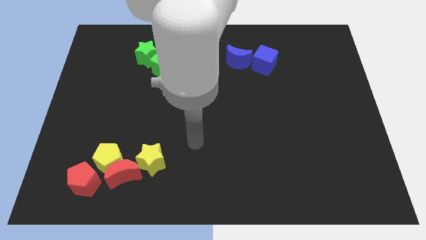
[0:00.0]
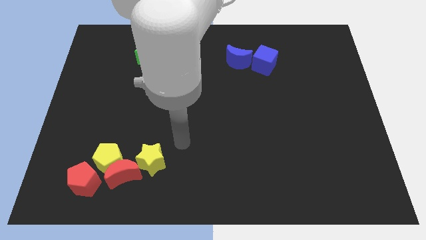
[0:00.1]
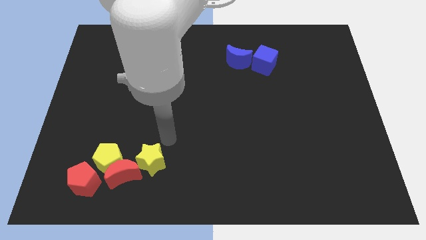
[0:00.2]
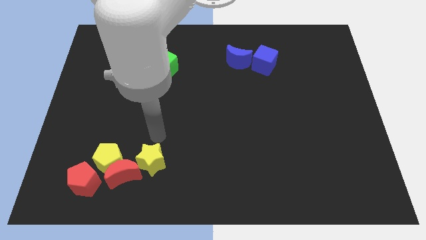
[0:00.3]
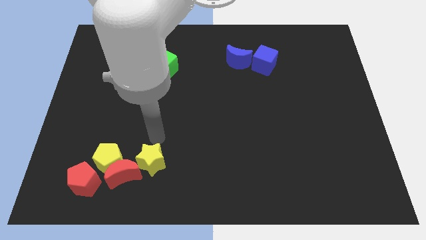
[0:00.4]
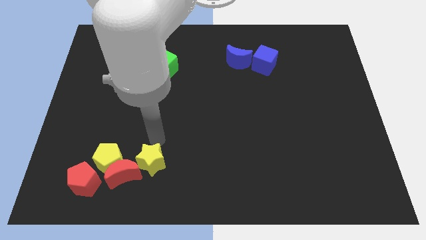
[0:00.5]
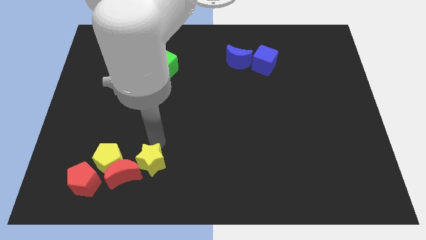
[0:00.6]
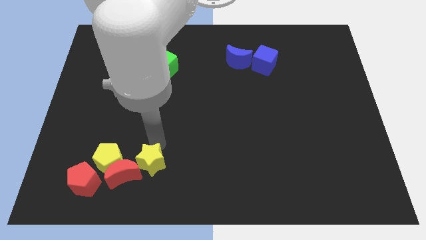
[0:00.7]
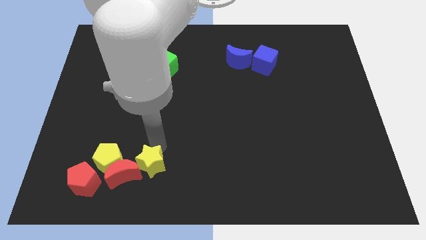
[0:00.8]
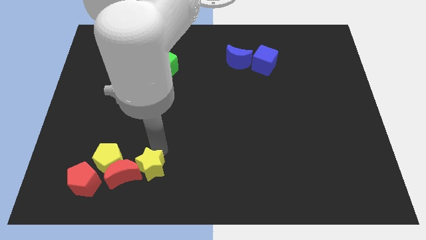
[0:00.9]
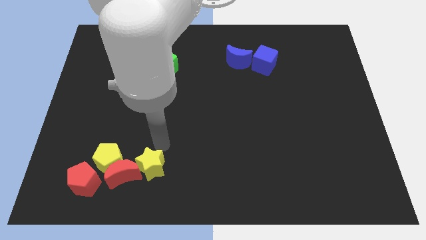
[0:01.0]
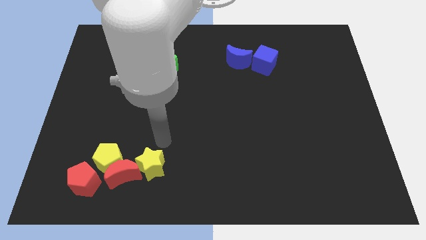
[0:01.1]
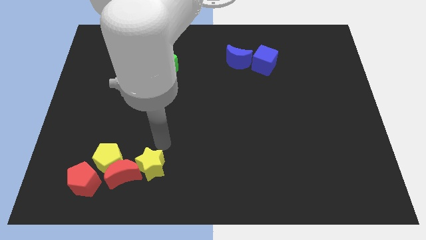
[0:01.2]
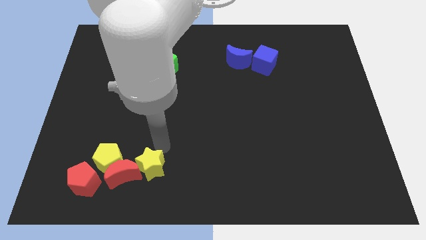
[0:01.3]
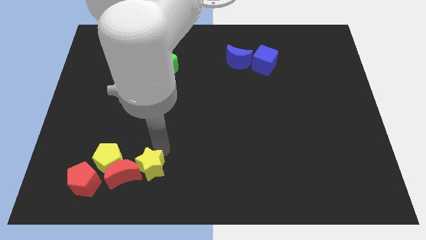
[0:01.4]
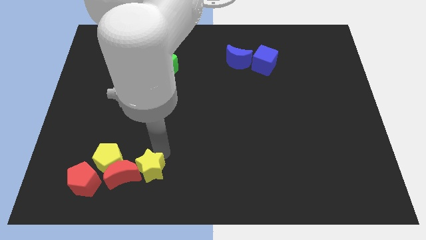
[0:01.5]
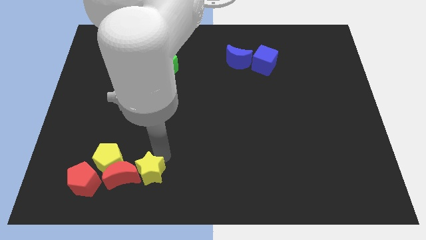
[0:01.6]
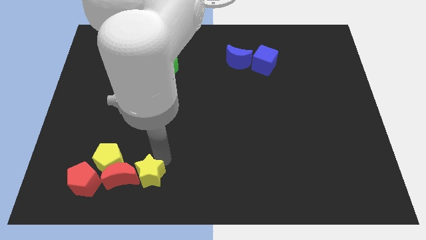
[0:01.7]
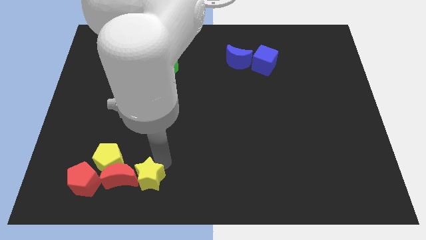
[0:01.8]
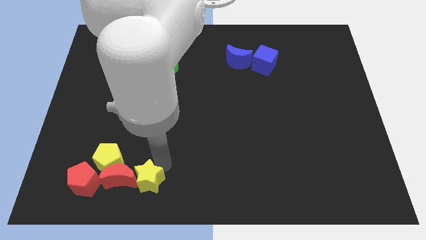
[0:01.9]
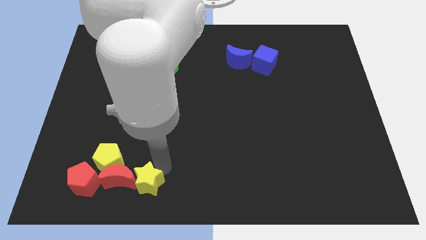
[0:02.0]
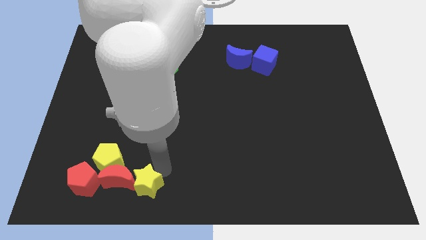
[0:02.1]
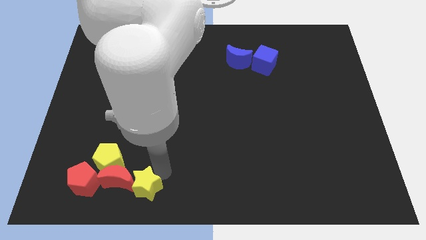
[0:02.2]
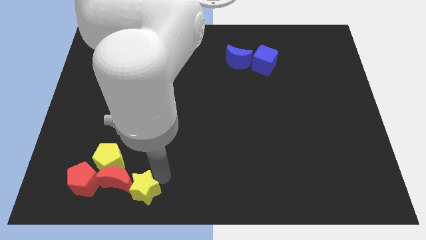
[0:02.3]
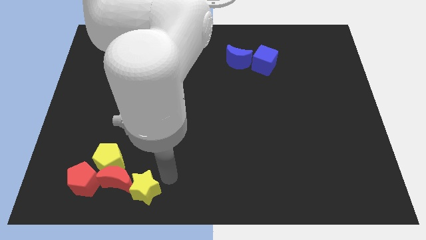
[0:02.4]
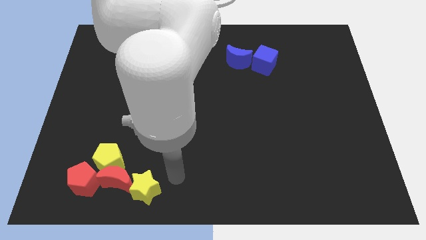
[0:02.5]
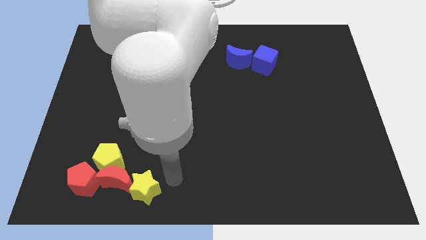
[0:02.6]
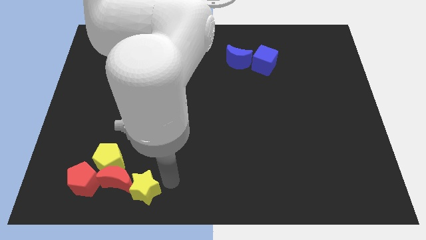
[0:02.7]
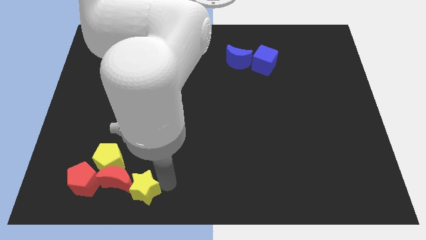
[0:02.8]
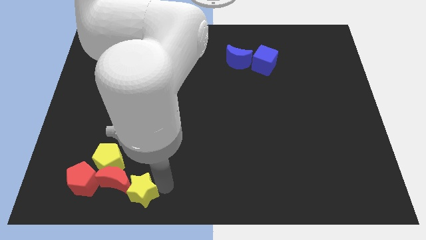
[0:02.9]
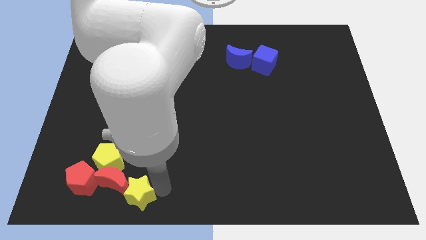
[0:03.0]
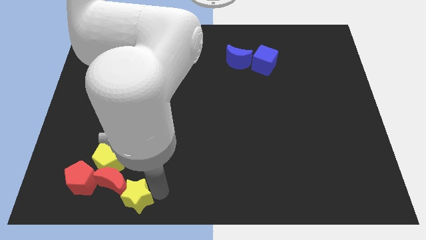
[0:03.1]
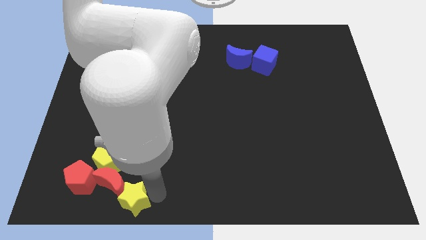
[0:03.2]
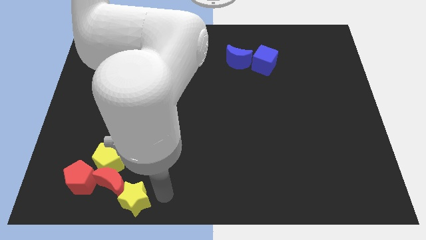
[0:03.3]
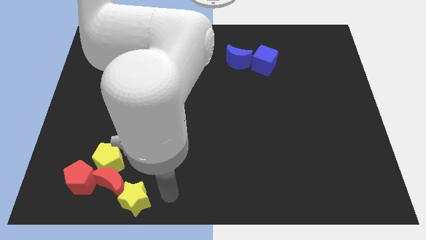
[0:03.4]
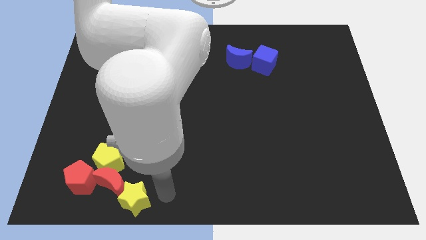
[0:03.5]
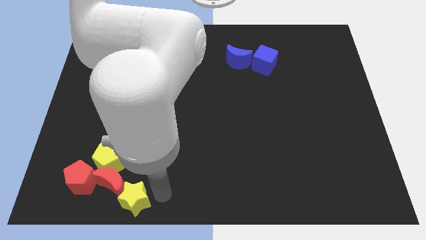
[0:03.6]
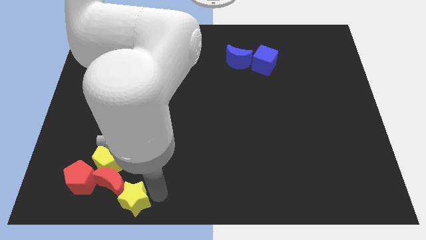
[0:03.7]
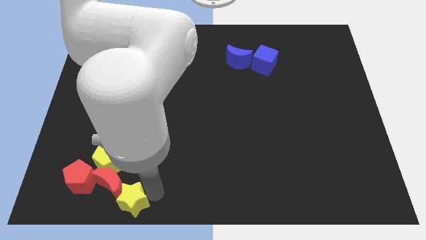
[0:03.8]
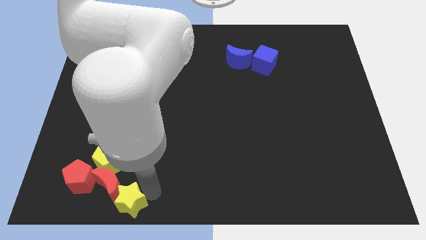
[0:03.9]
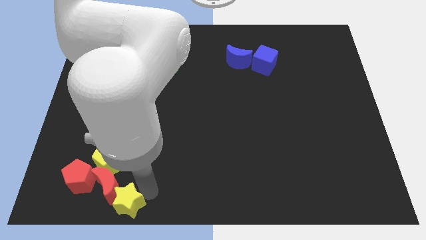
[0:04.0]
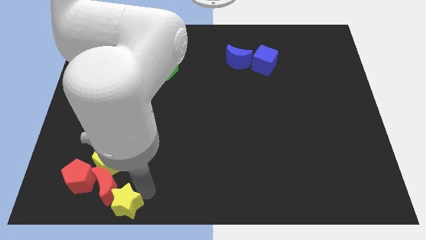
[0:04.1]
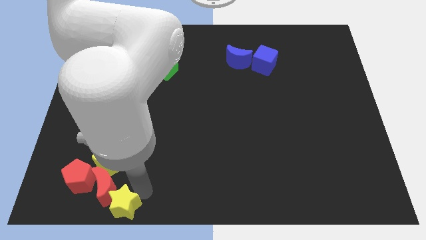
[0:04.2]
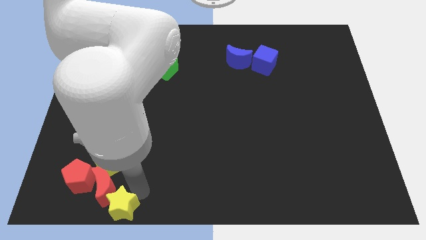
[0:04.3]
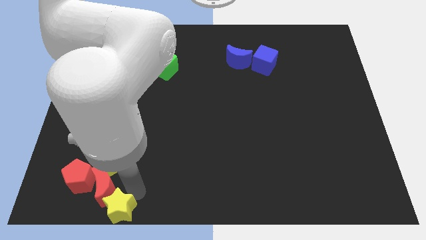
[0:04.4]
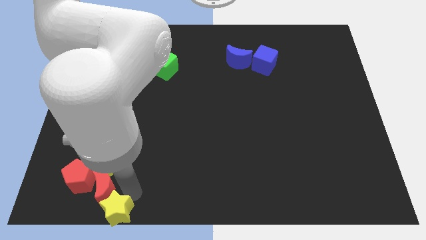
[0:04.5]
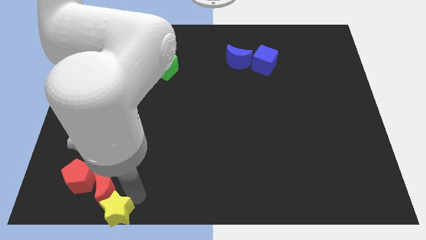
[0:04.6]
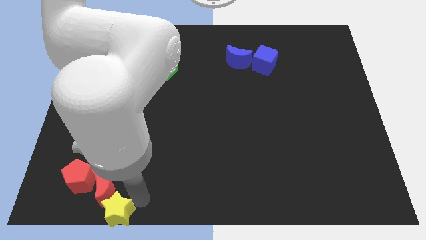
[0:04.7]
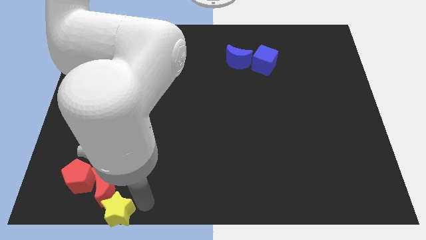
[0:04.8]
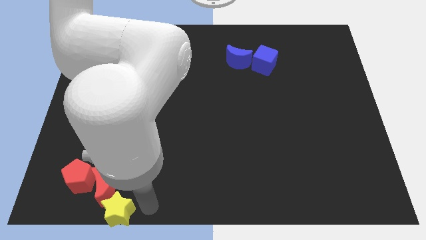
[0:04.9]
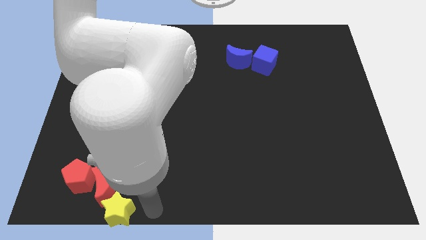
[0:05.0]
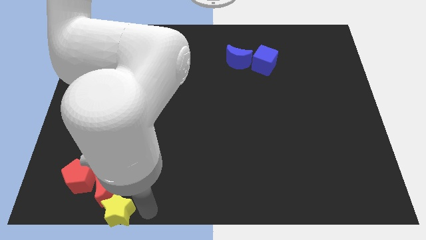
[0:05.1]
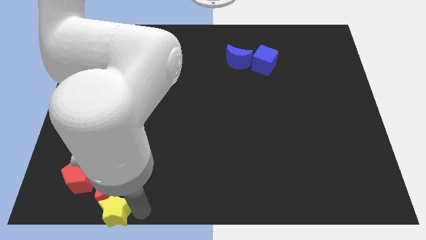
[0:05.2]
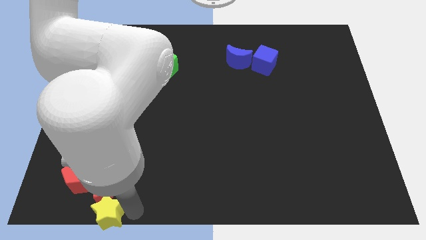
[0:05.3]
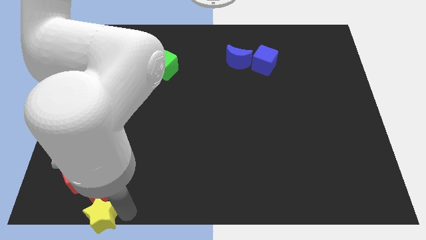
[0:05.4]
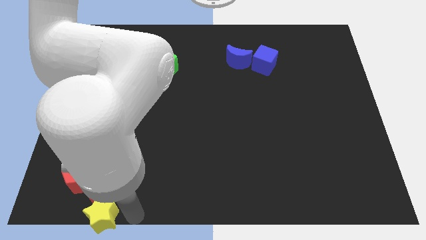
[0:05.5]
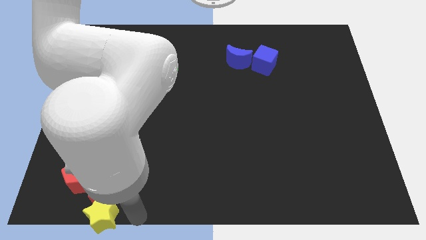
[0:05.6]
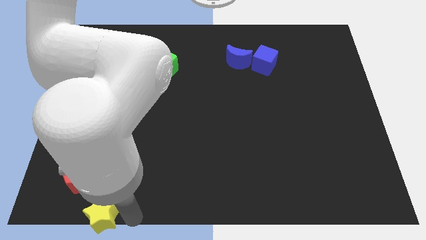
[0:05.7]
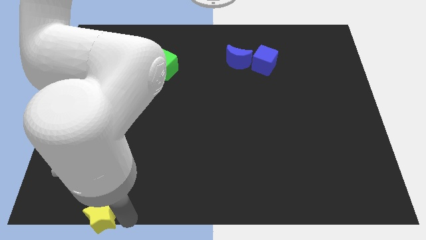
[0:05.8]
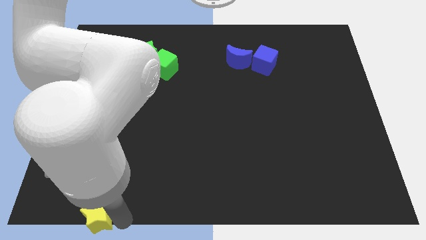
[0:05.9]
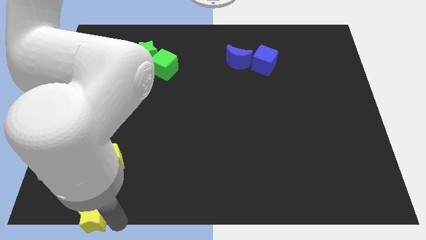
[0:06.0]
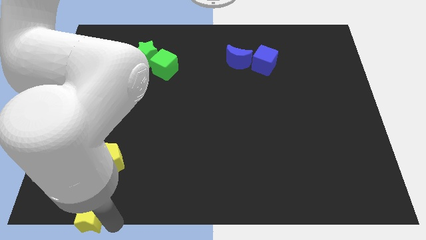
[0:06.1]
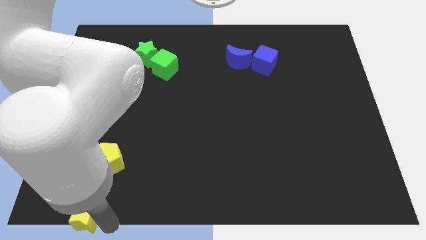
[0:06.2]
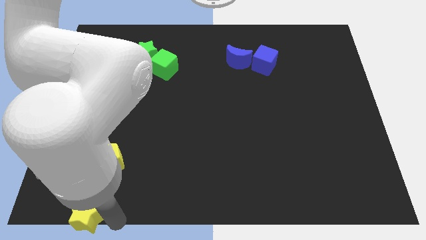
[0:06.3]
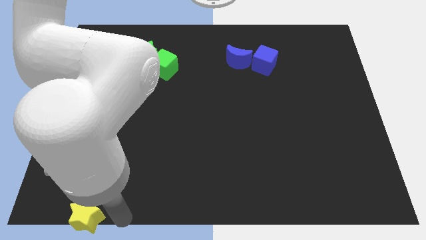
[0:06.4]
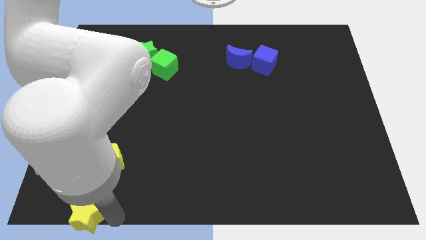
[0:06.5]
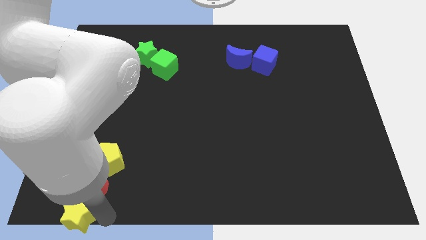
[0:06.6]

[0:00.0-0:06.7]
push the yellow star to the lower left corner

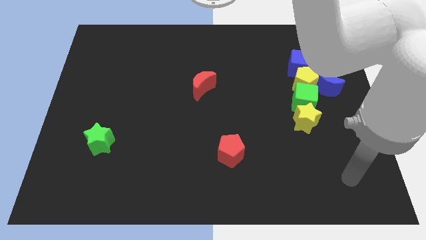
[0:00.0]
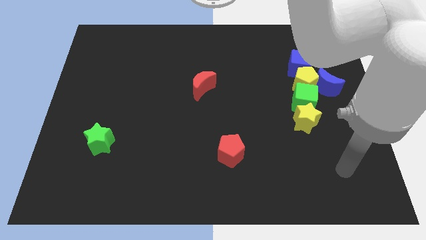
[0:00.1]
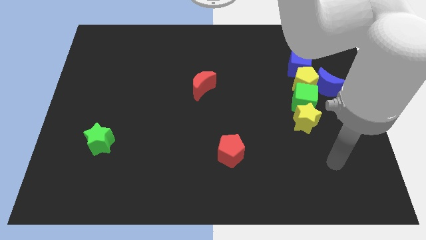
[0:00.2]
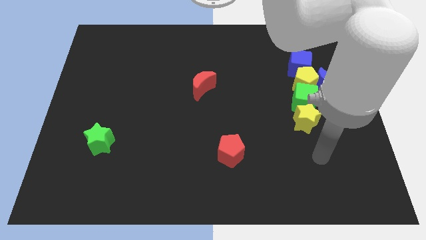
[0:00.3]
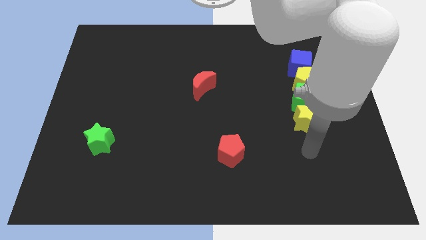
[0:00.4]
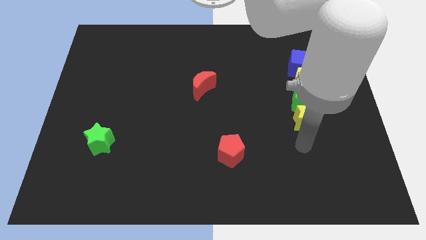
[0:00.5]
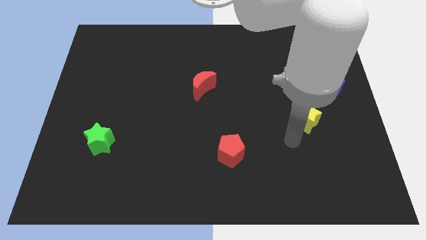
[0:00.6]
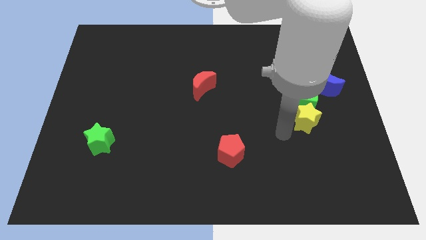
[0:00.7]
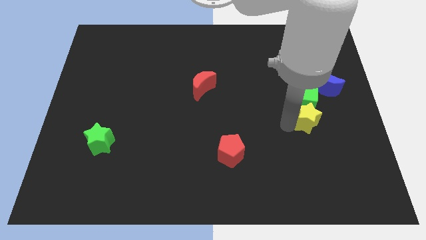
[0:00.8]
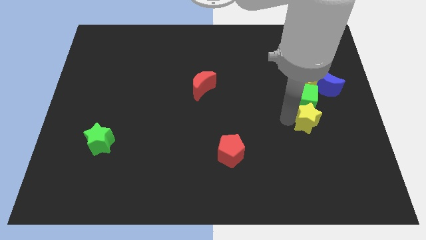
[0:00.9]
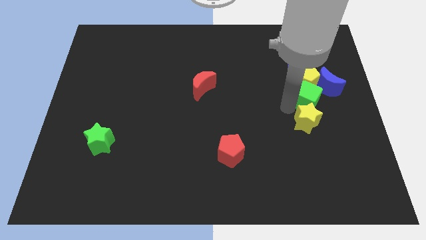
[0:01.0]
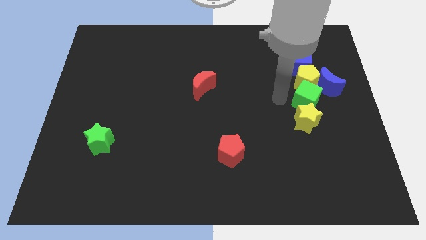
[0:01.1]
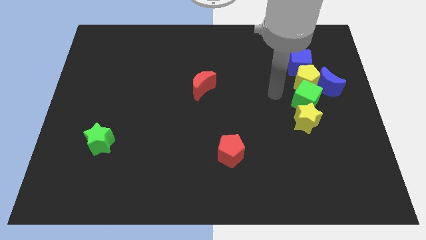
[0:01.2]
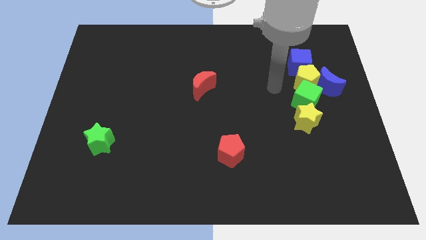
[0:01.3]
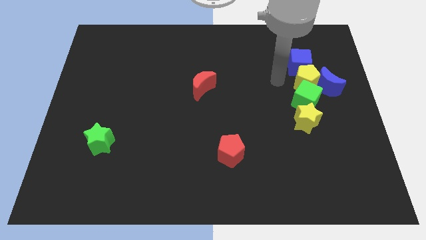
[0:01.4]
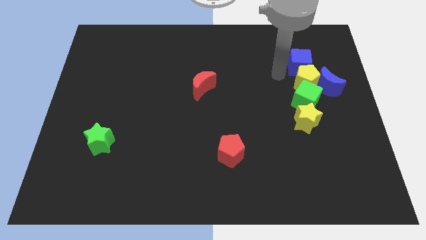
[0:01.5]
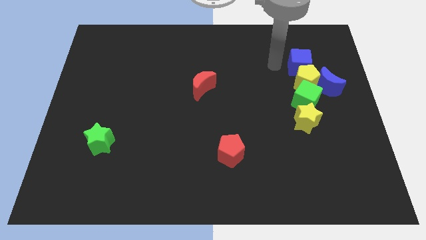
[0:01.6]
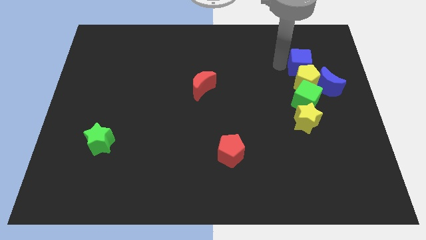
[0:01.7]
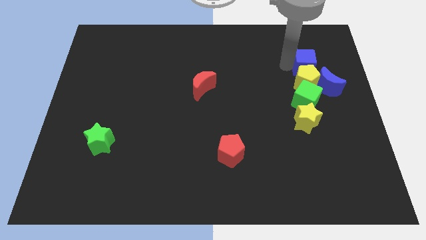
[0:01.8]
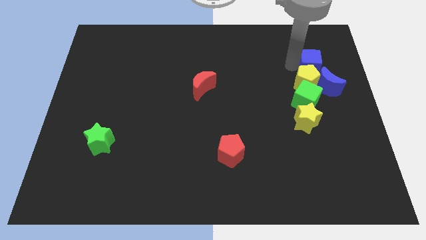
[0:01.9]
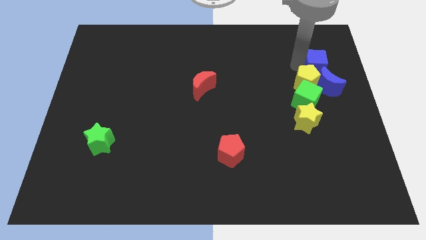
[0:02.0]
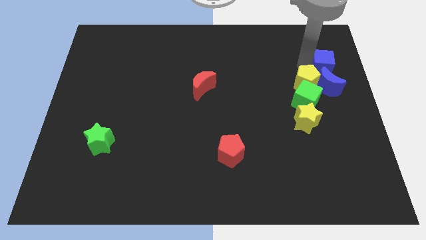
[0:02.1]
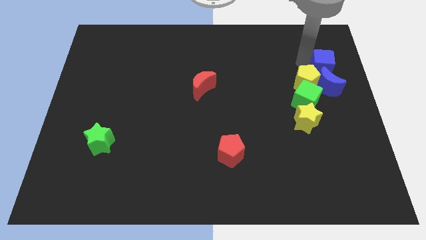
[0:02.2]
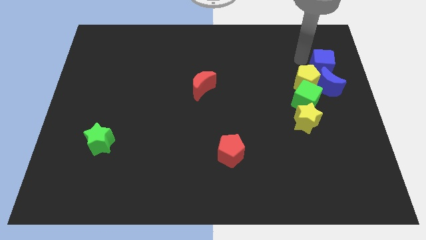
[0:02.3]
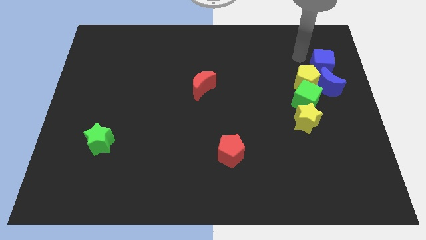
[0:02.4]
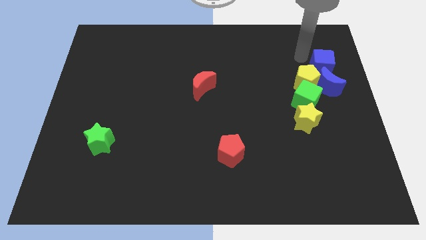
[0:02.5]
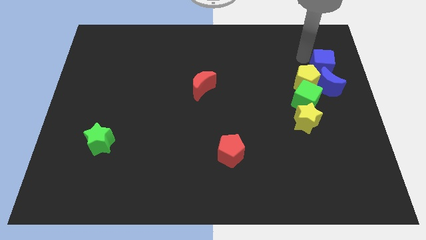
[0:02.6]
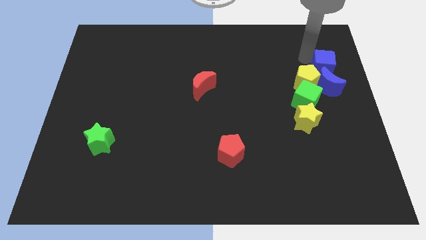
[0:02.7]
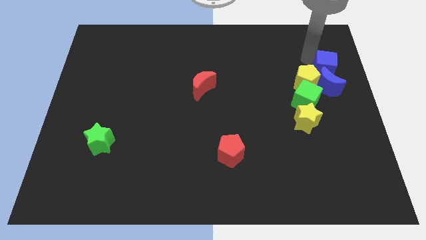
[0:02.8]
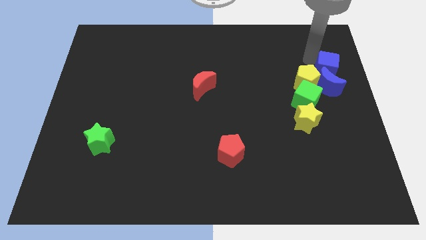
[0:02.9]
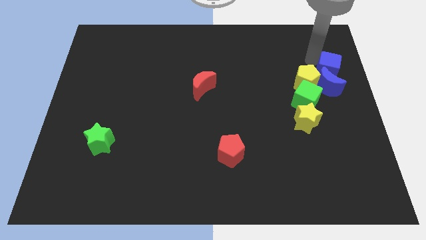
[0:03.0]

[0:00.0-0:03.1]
push the blue cube to the right side of the board
